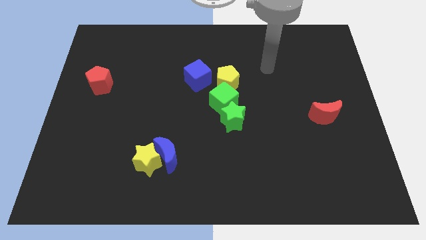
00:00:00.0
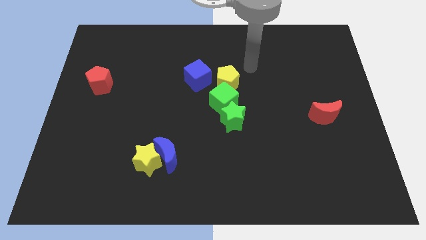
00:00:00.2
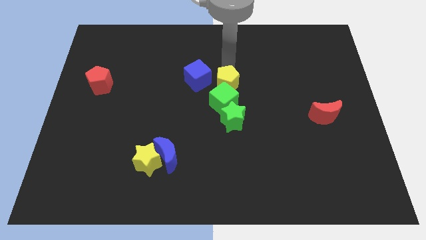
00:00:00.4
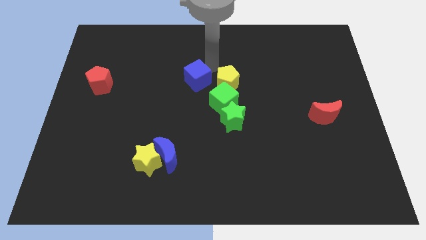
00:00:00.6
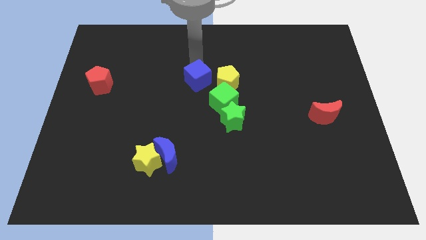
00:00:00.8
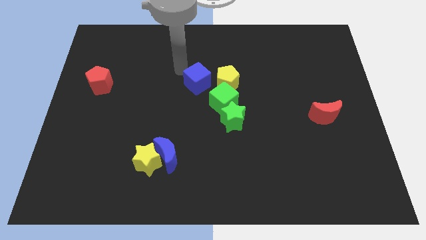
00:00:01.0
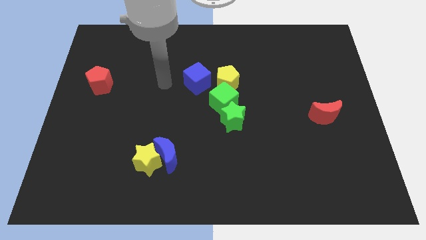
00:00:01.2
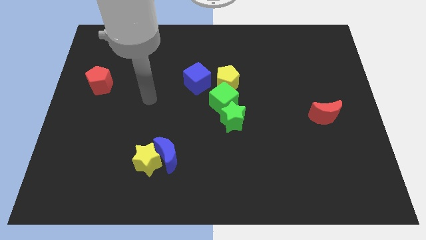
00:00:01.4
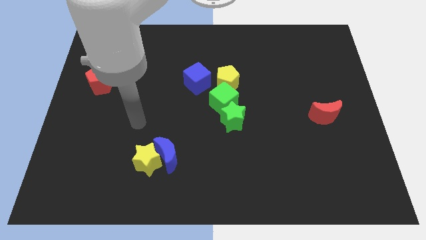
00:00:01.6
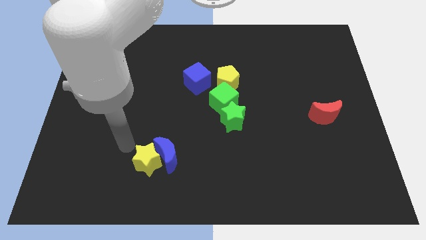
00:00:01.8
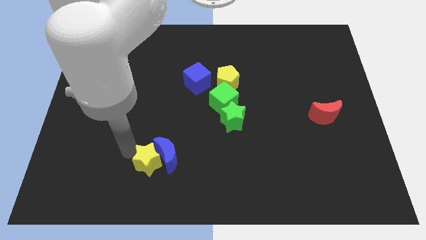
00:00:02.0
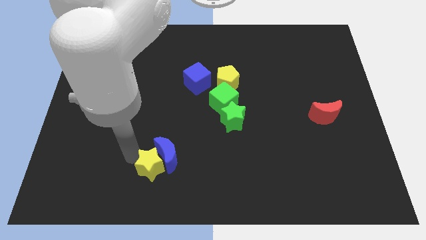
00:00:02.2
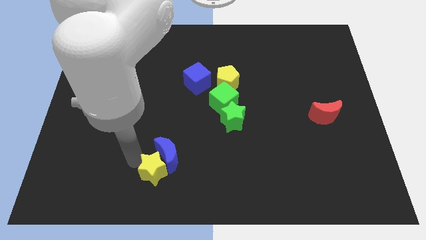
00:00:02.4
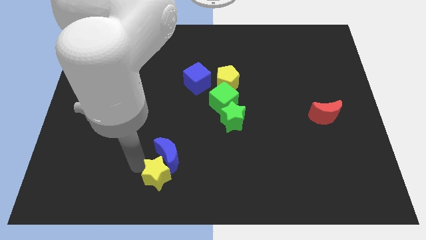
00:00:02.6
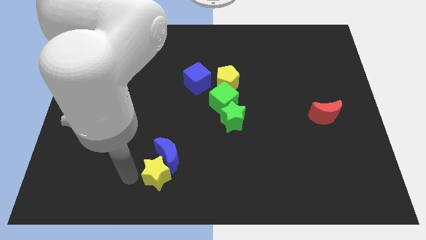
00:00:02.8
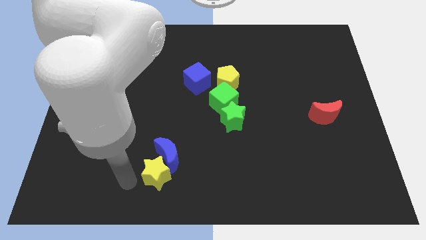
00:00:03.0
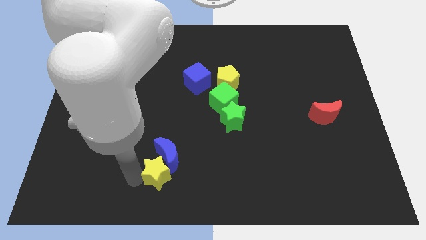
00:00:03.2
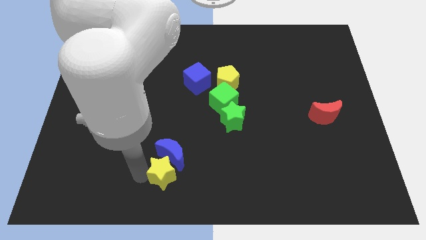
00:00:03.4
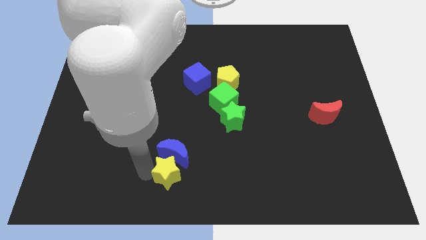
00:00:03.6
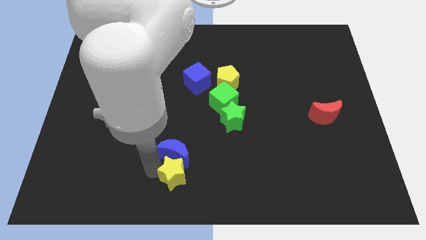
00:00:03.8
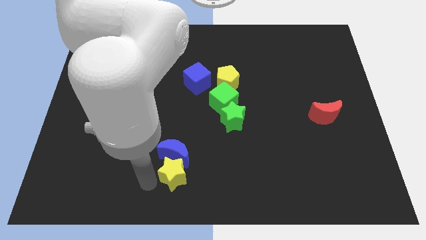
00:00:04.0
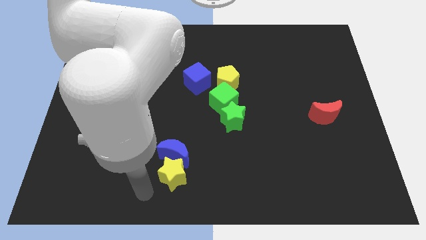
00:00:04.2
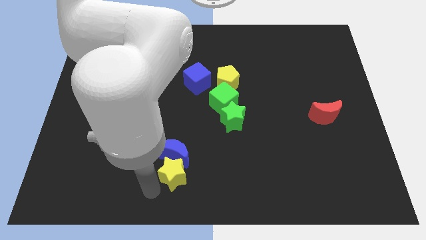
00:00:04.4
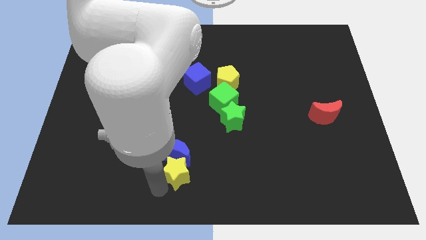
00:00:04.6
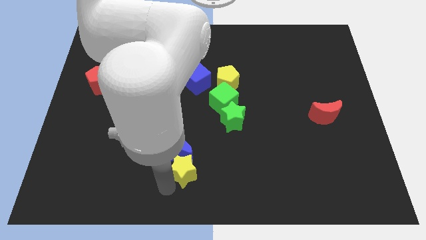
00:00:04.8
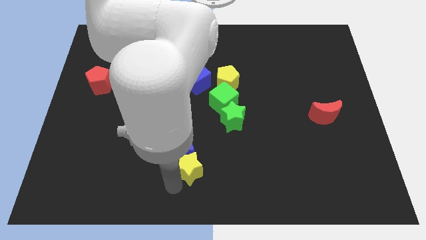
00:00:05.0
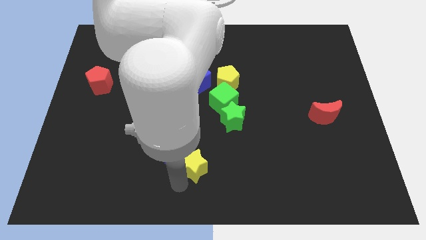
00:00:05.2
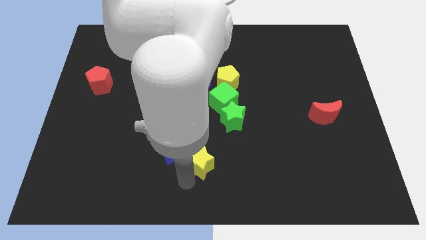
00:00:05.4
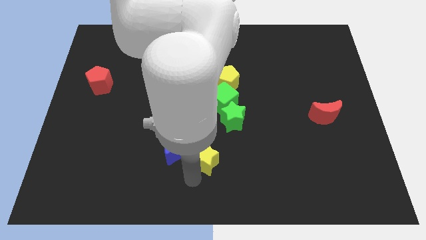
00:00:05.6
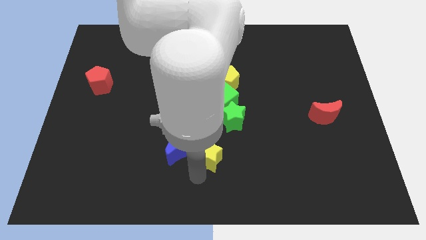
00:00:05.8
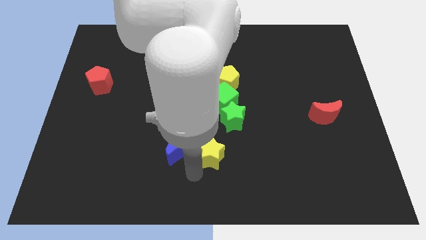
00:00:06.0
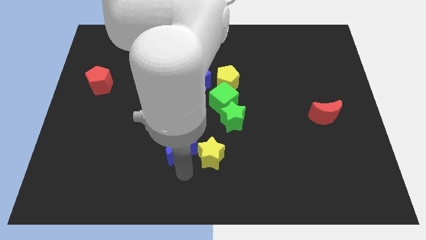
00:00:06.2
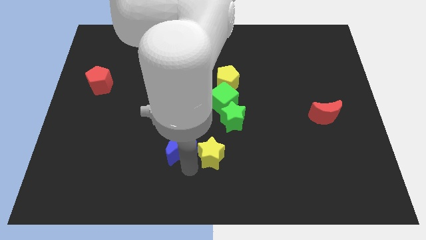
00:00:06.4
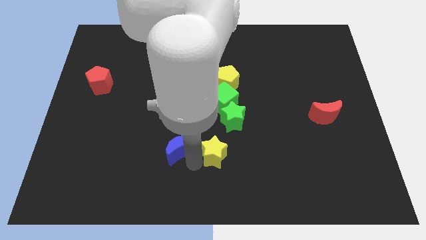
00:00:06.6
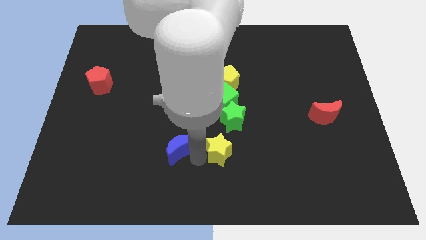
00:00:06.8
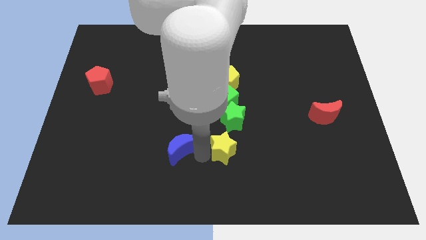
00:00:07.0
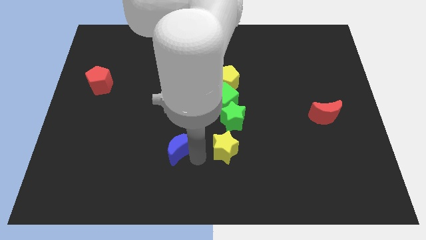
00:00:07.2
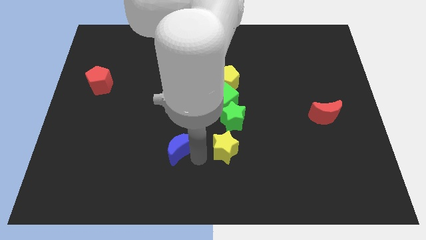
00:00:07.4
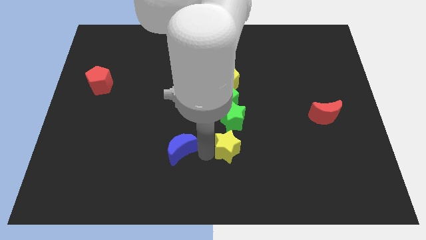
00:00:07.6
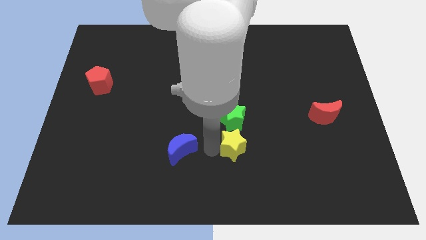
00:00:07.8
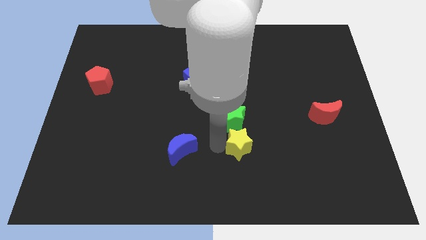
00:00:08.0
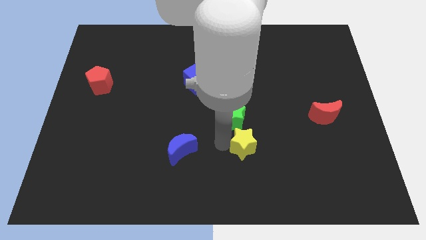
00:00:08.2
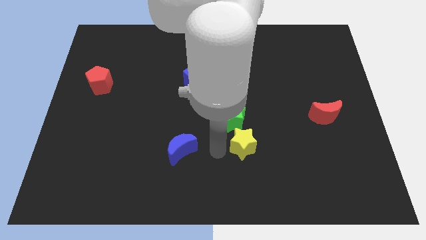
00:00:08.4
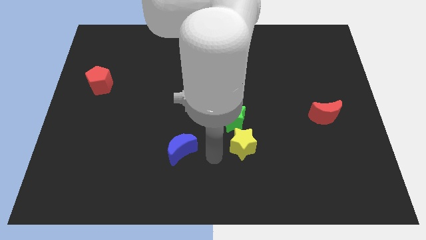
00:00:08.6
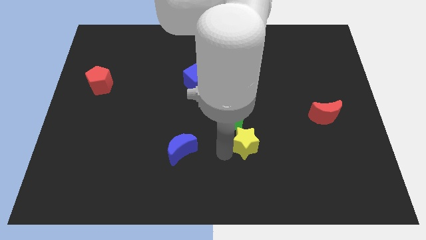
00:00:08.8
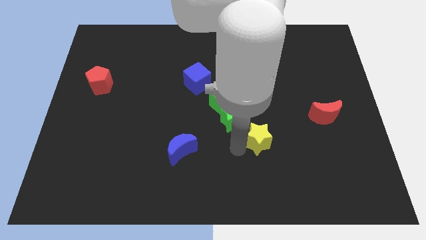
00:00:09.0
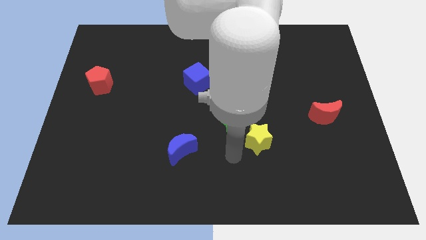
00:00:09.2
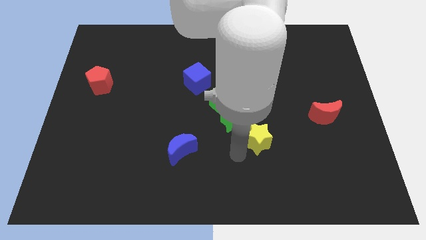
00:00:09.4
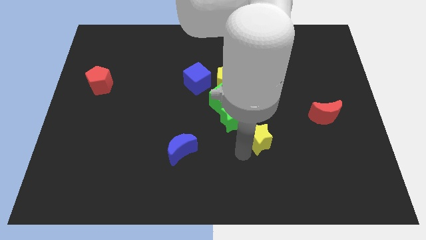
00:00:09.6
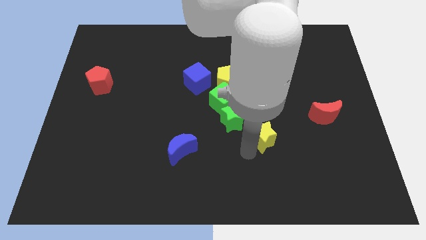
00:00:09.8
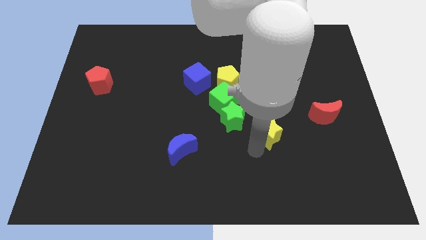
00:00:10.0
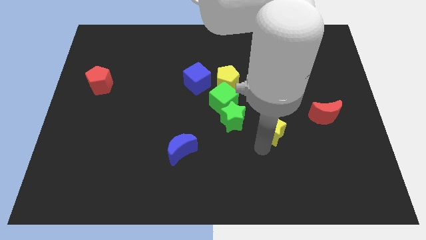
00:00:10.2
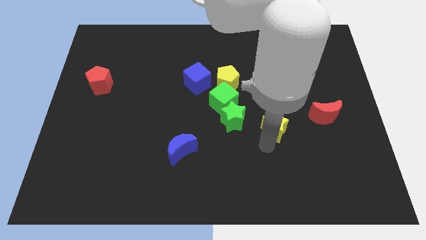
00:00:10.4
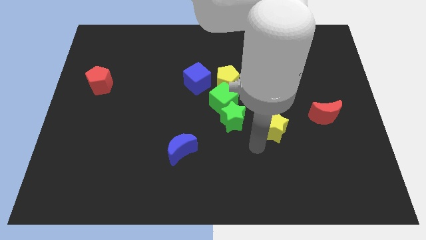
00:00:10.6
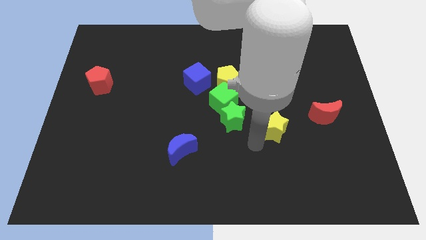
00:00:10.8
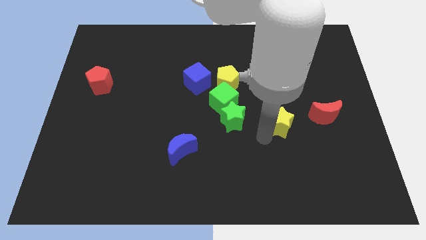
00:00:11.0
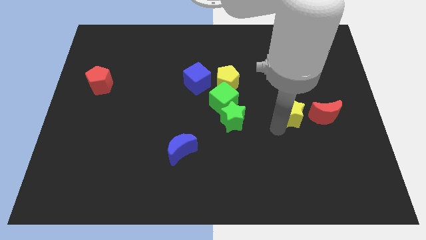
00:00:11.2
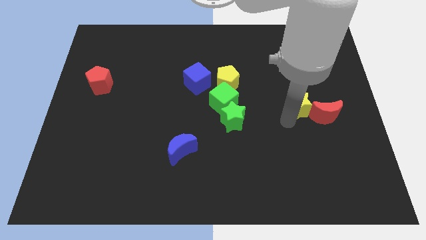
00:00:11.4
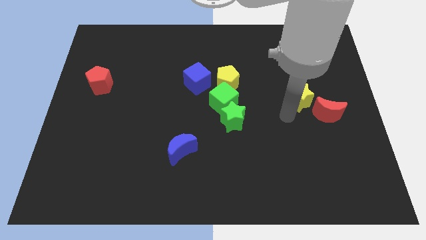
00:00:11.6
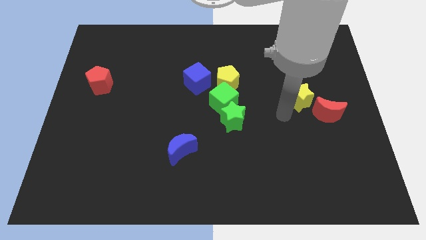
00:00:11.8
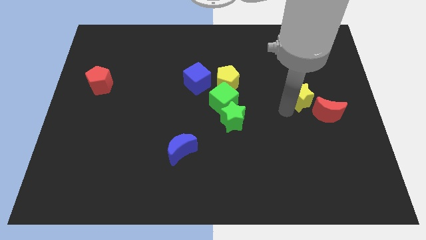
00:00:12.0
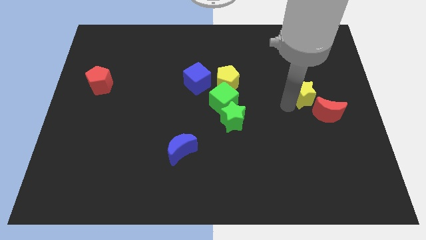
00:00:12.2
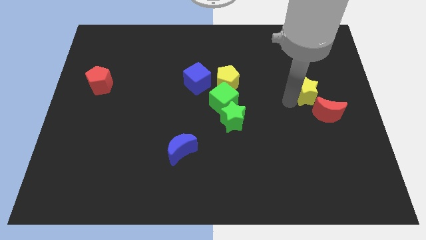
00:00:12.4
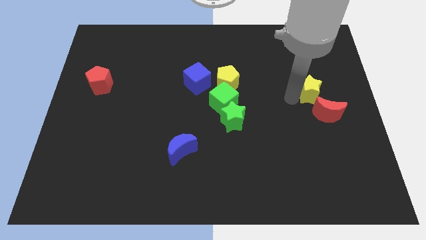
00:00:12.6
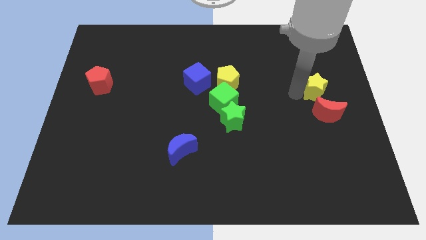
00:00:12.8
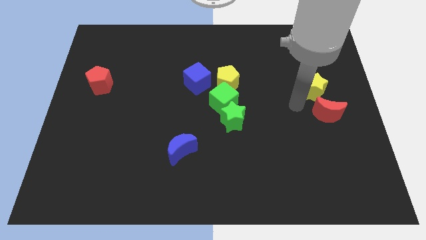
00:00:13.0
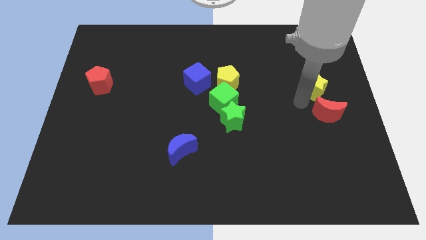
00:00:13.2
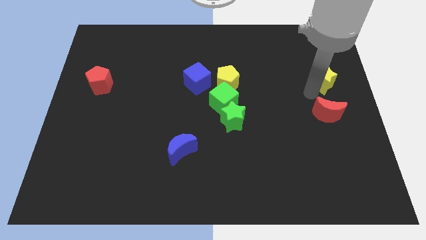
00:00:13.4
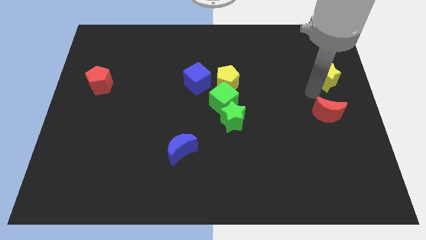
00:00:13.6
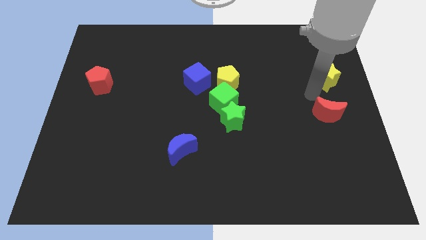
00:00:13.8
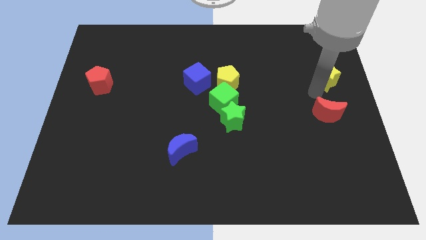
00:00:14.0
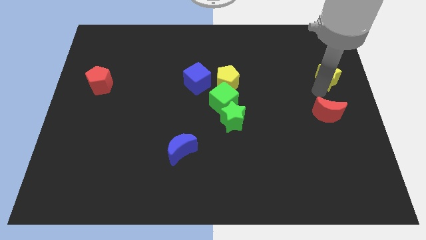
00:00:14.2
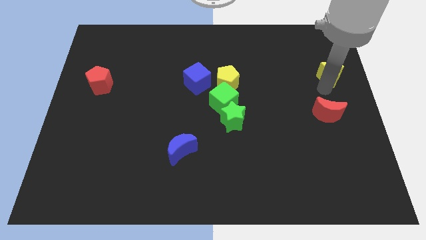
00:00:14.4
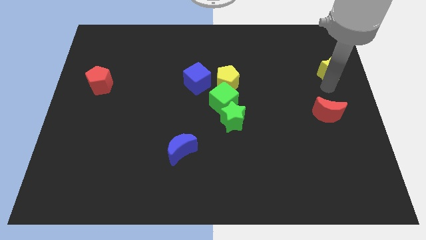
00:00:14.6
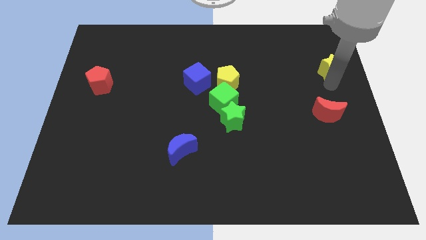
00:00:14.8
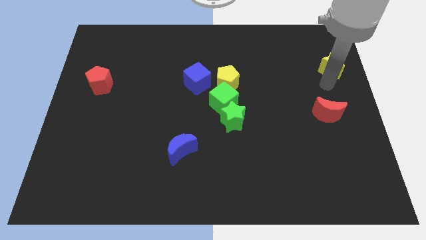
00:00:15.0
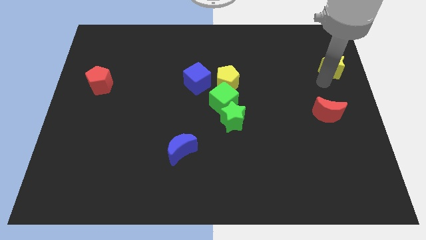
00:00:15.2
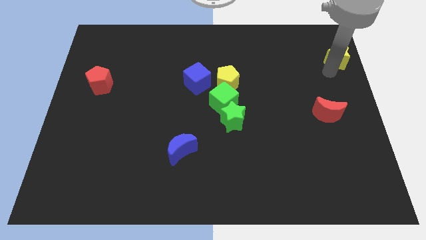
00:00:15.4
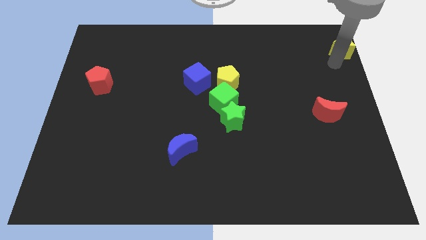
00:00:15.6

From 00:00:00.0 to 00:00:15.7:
move the yellow star to the top right of the board
